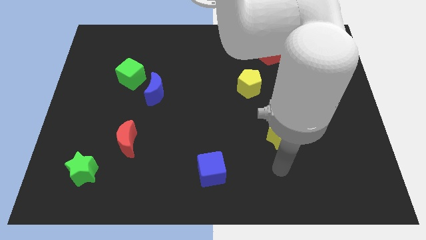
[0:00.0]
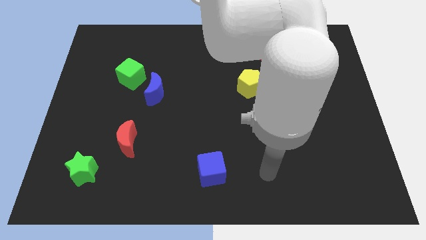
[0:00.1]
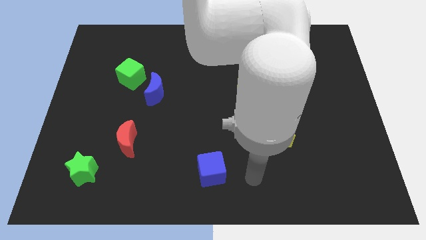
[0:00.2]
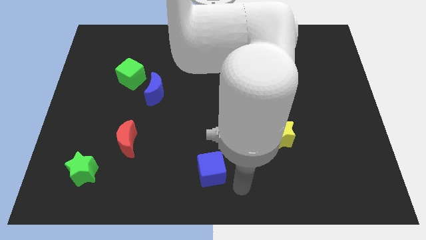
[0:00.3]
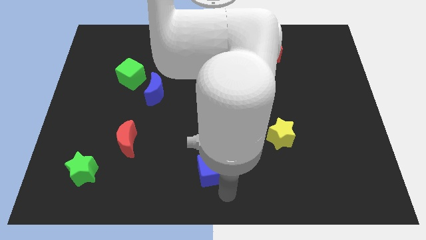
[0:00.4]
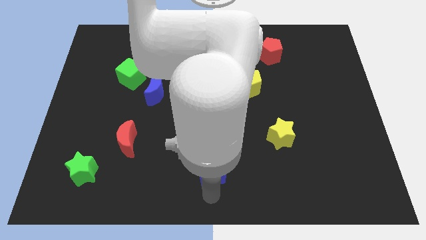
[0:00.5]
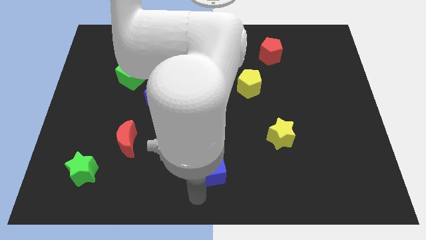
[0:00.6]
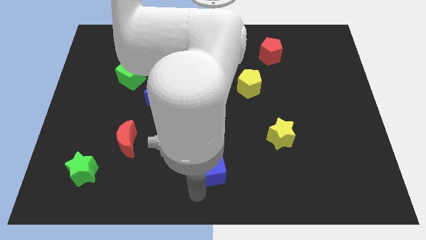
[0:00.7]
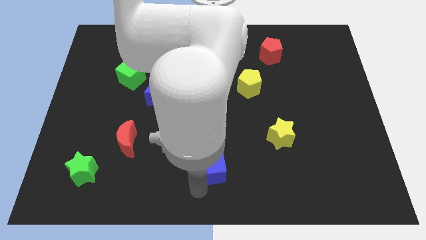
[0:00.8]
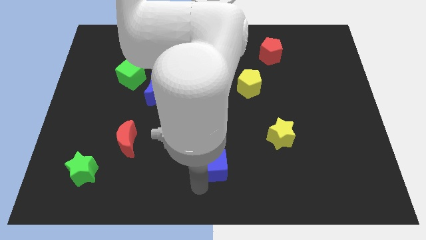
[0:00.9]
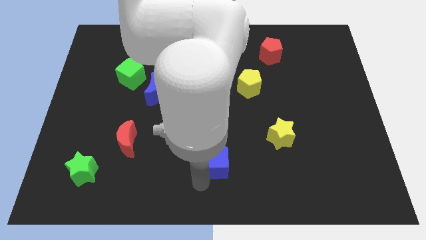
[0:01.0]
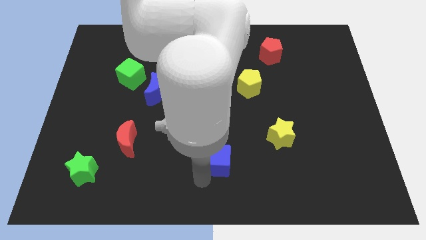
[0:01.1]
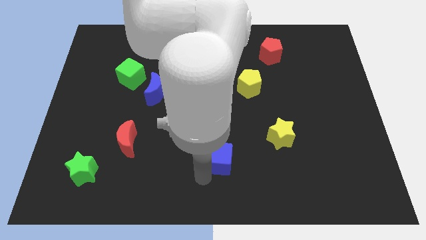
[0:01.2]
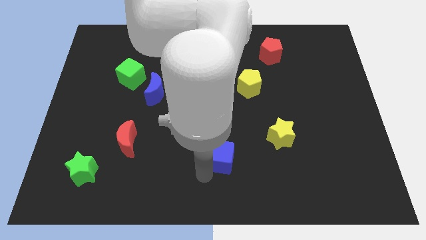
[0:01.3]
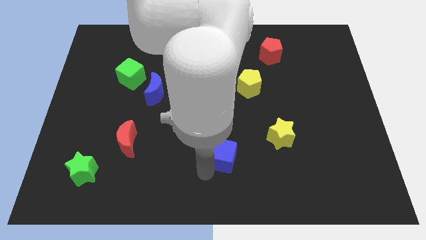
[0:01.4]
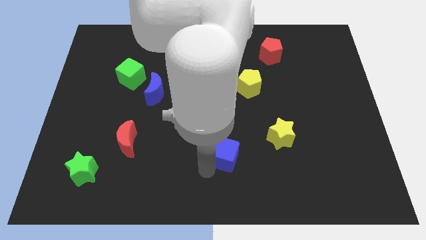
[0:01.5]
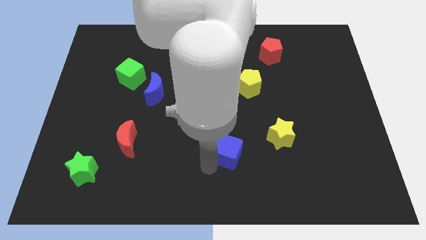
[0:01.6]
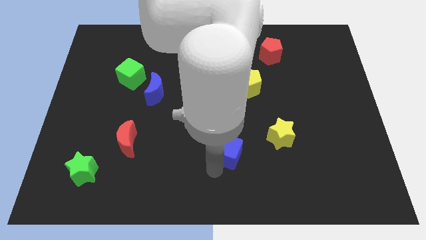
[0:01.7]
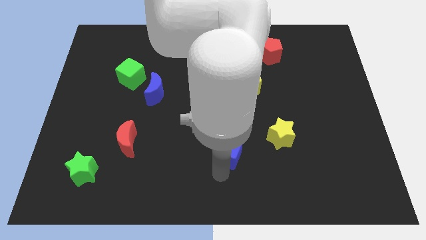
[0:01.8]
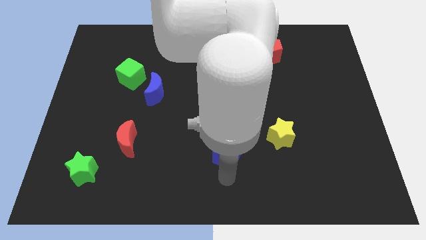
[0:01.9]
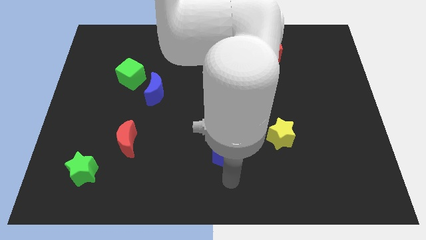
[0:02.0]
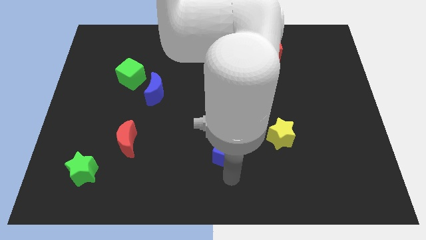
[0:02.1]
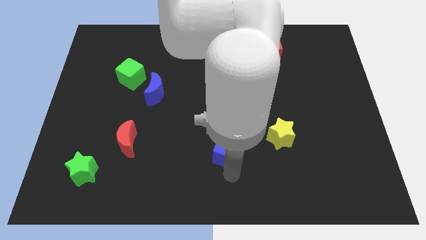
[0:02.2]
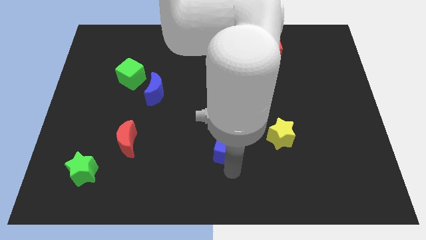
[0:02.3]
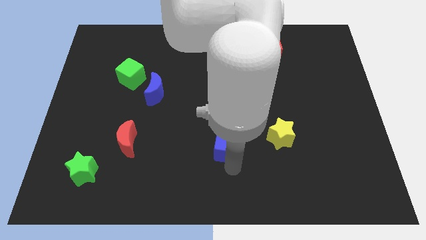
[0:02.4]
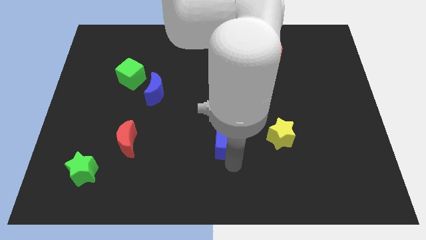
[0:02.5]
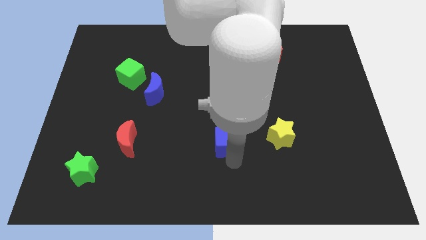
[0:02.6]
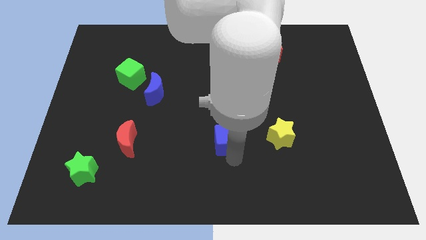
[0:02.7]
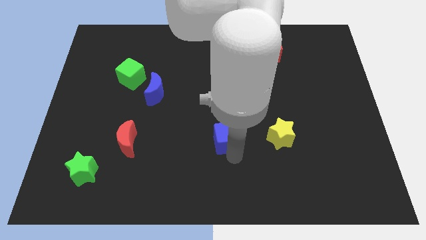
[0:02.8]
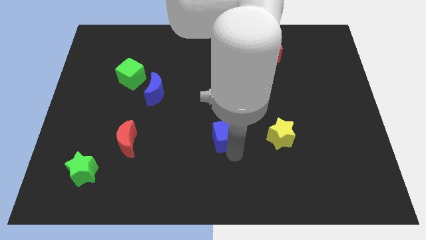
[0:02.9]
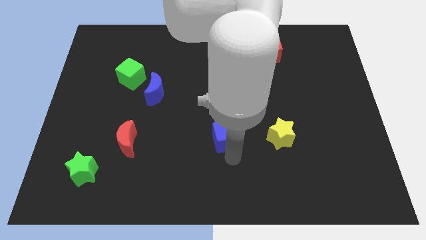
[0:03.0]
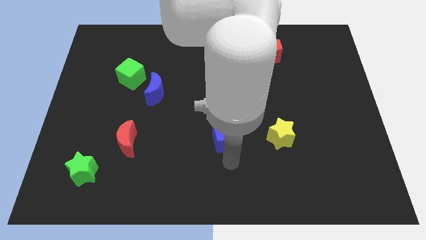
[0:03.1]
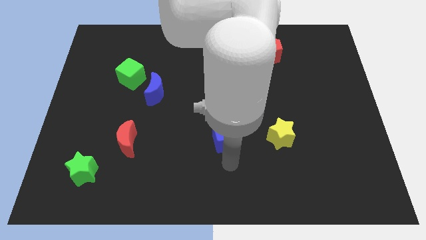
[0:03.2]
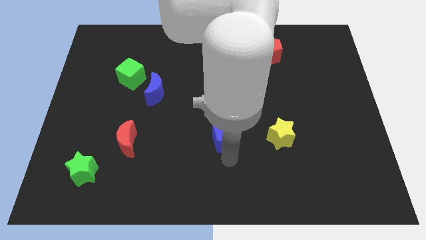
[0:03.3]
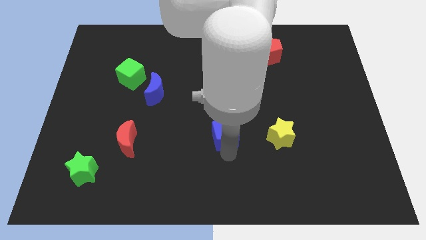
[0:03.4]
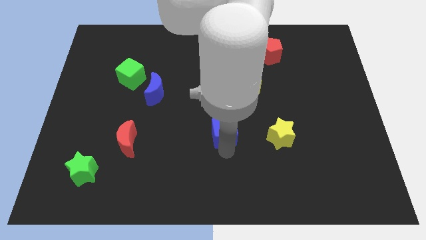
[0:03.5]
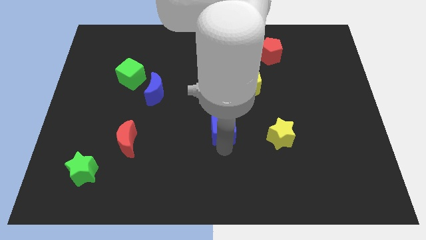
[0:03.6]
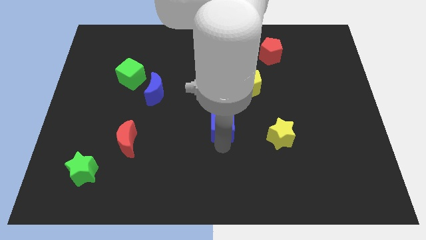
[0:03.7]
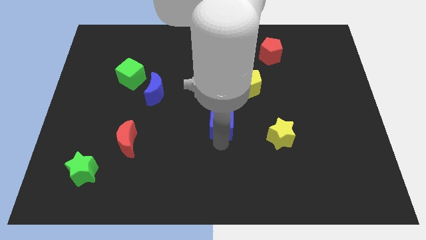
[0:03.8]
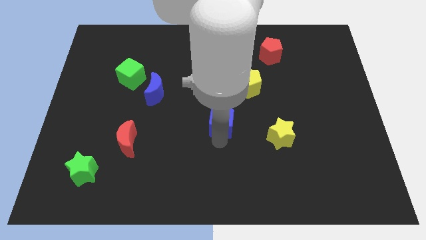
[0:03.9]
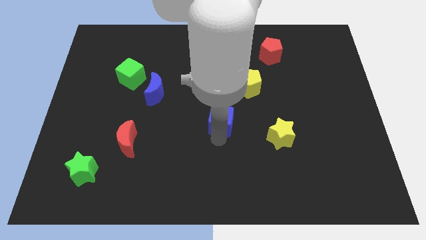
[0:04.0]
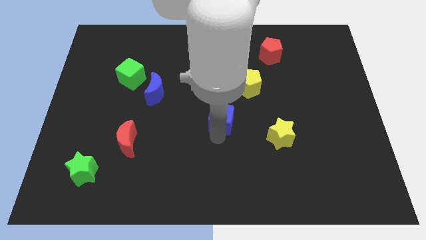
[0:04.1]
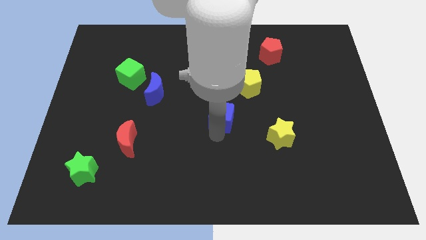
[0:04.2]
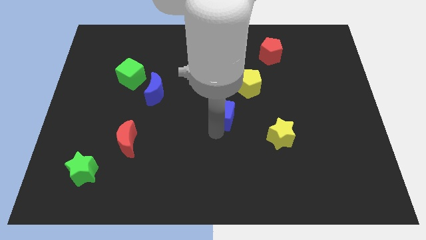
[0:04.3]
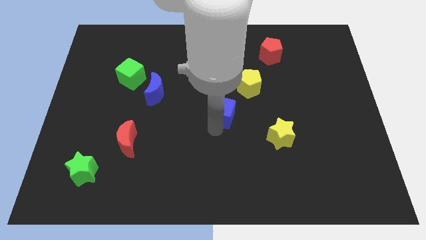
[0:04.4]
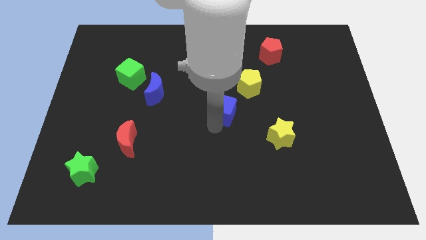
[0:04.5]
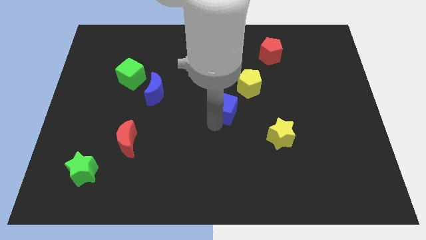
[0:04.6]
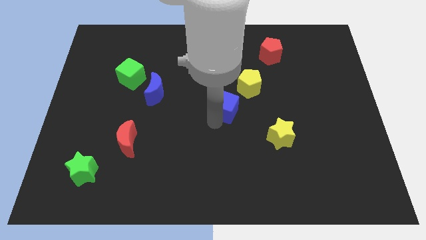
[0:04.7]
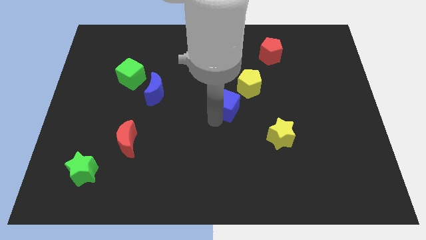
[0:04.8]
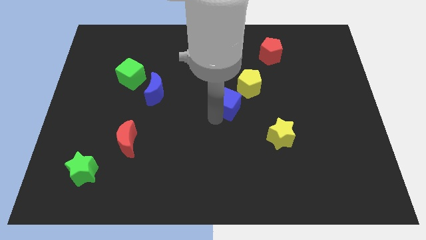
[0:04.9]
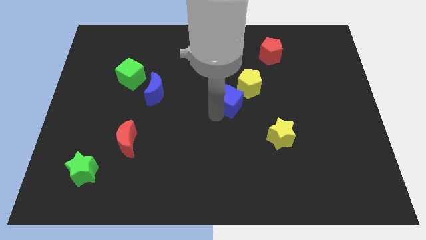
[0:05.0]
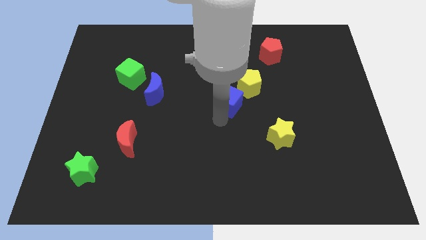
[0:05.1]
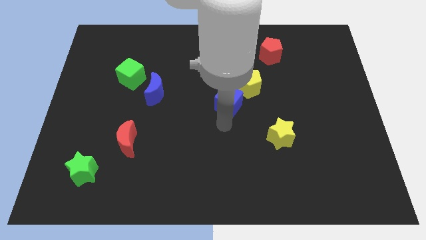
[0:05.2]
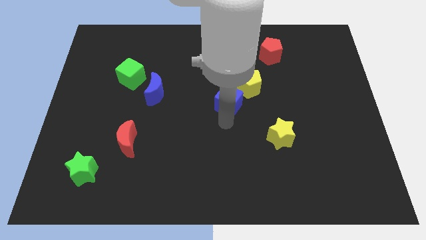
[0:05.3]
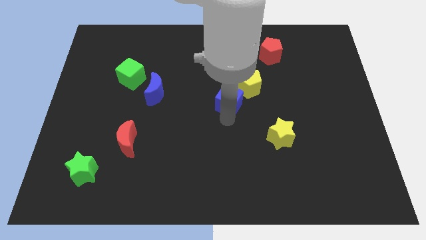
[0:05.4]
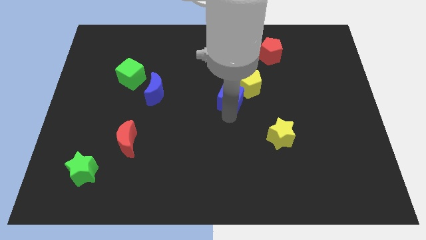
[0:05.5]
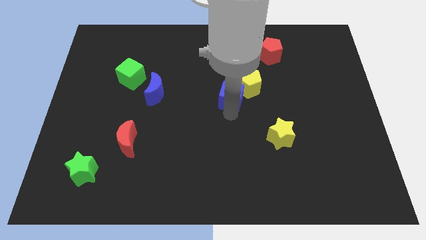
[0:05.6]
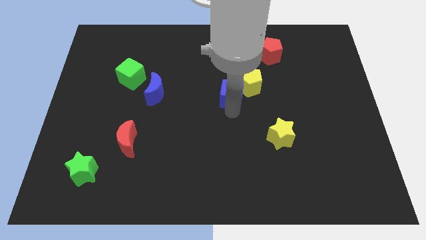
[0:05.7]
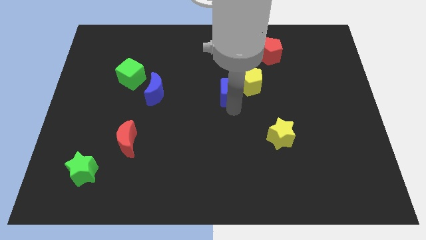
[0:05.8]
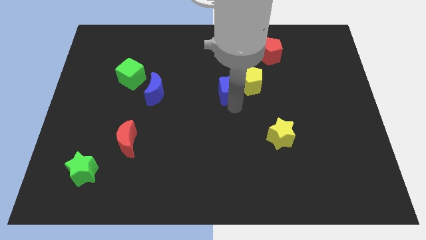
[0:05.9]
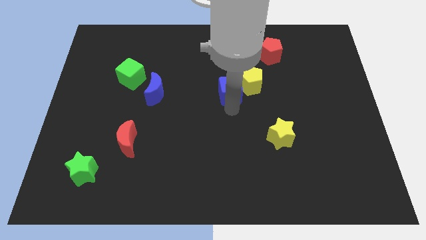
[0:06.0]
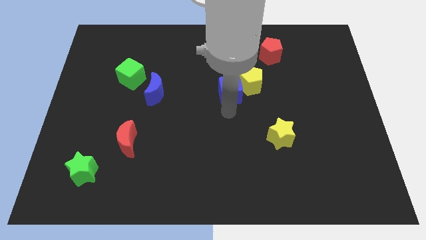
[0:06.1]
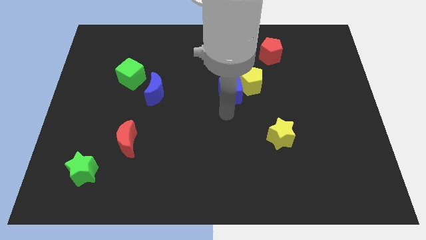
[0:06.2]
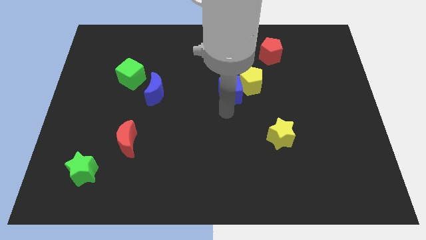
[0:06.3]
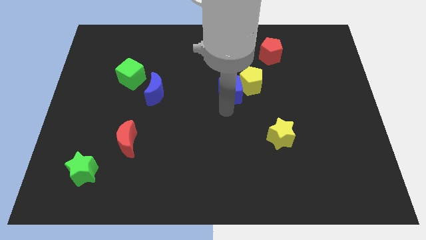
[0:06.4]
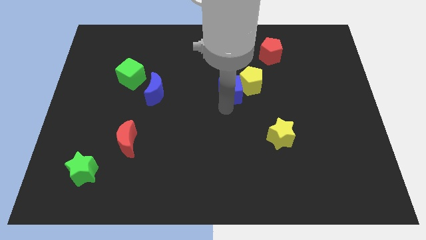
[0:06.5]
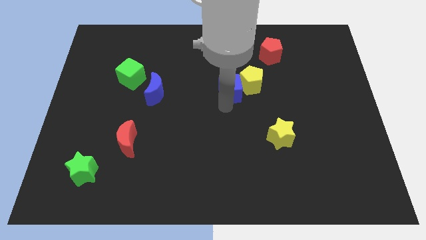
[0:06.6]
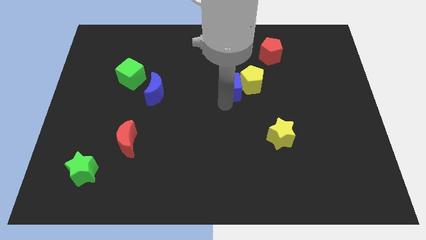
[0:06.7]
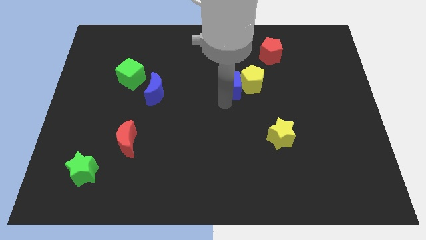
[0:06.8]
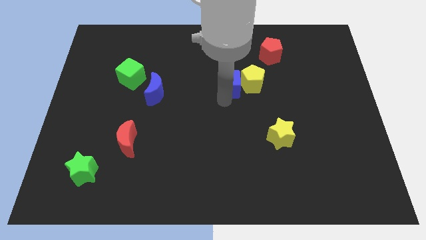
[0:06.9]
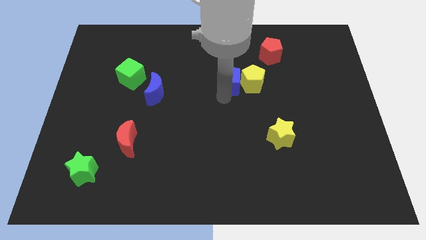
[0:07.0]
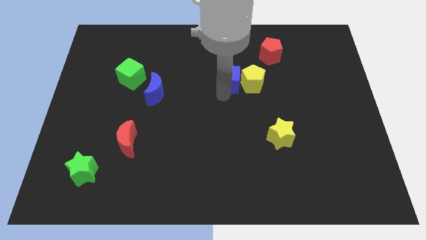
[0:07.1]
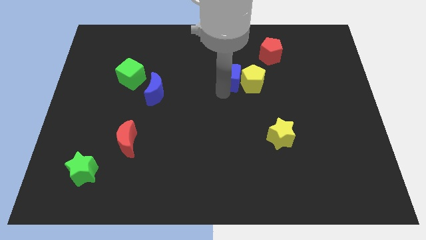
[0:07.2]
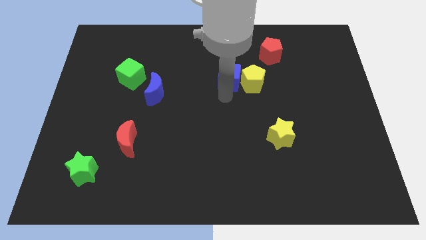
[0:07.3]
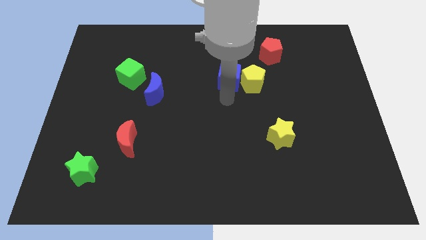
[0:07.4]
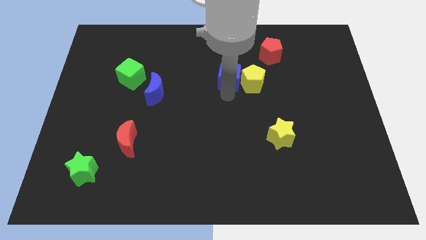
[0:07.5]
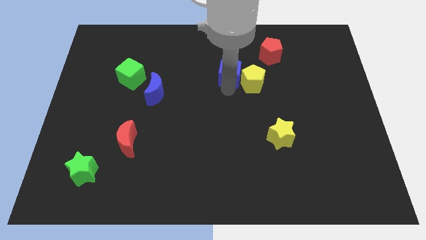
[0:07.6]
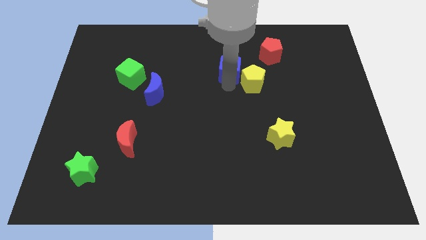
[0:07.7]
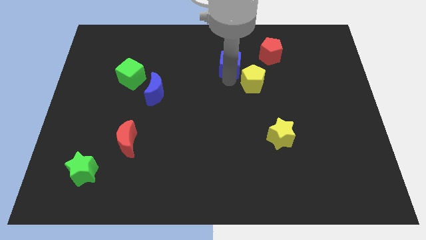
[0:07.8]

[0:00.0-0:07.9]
move the blue cube to the left of the red pentagon
